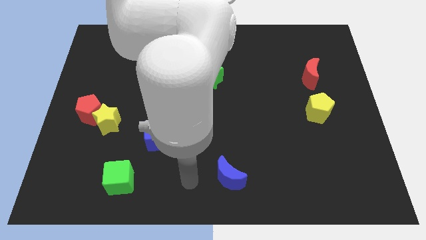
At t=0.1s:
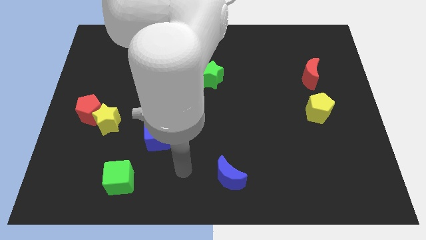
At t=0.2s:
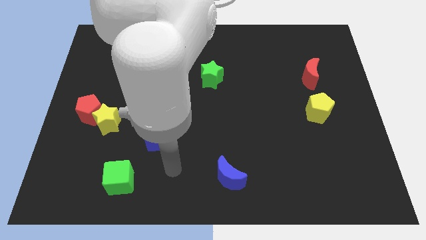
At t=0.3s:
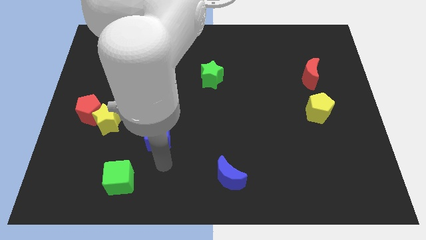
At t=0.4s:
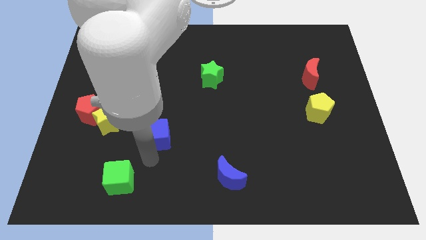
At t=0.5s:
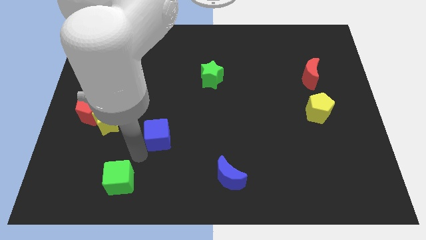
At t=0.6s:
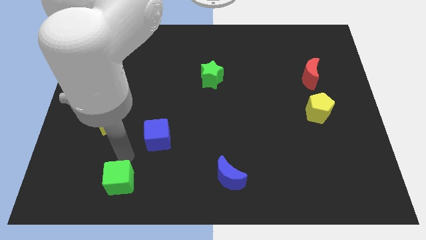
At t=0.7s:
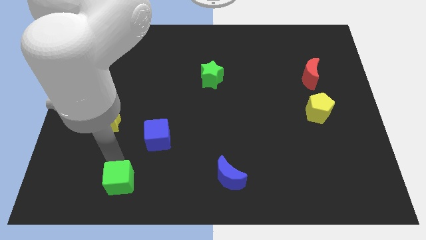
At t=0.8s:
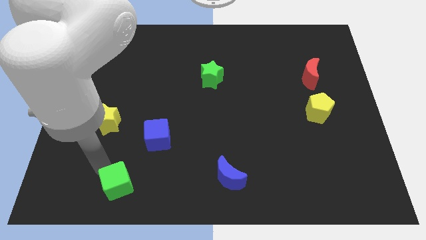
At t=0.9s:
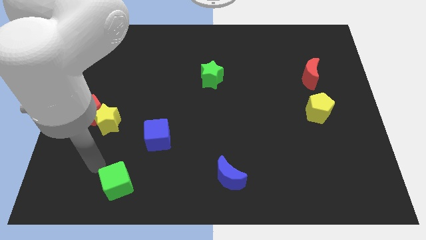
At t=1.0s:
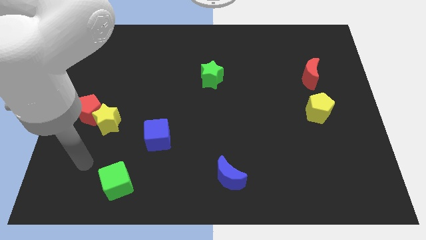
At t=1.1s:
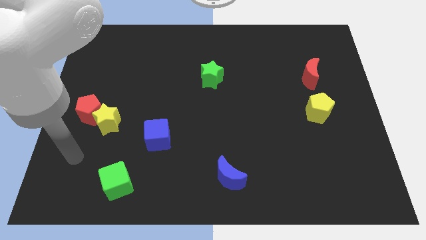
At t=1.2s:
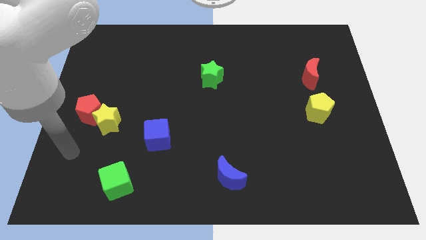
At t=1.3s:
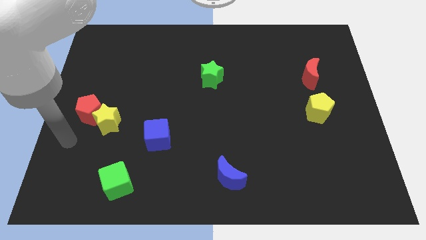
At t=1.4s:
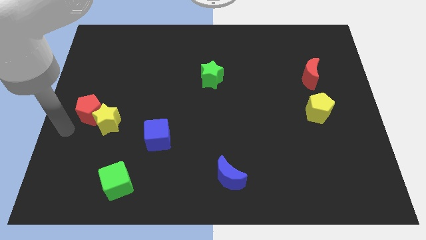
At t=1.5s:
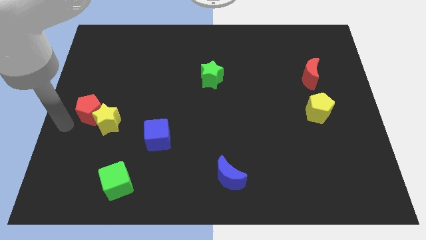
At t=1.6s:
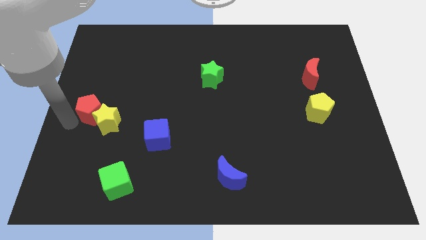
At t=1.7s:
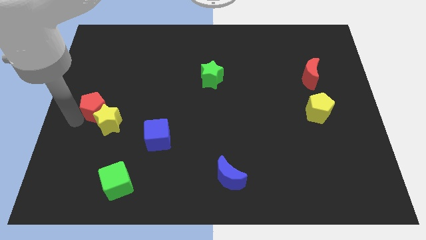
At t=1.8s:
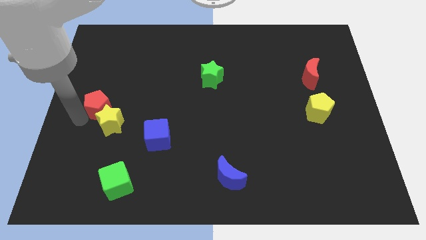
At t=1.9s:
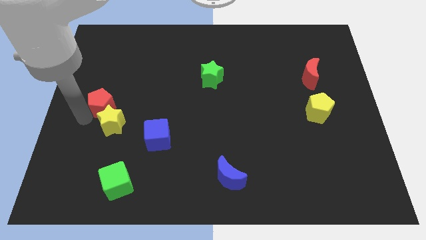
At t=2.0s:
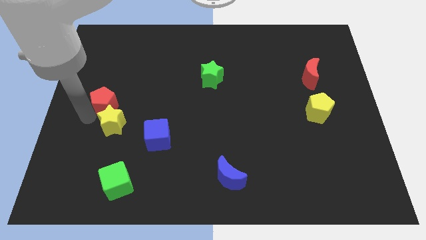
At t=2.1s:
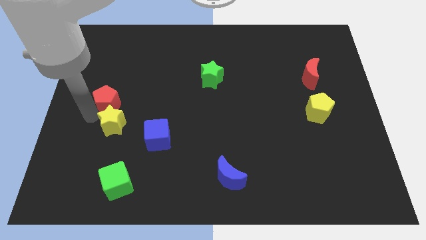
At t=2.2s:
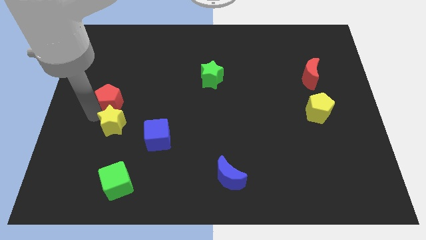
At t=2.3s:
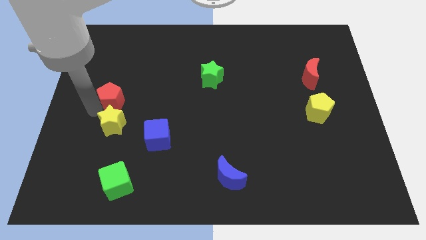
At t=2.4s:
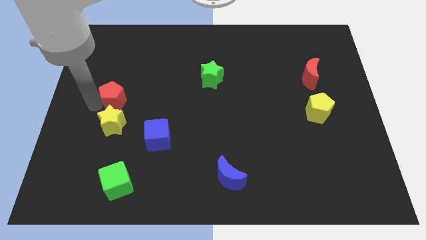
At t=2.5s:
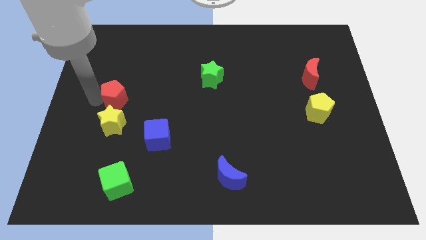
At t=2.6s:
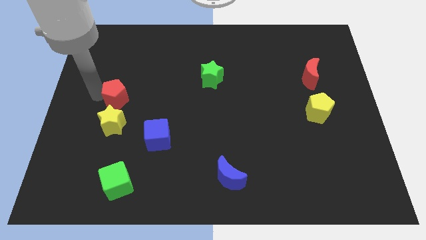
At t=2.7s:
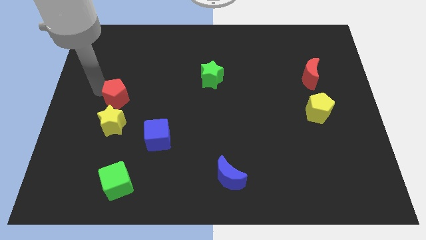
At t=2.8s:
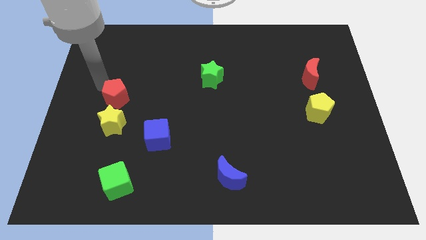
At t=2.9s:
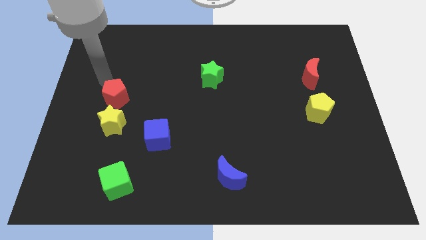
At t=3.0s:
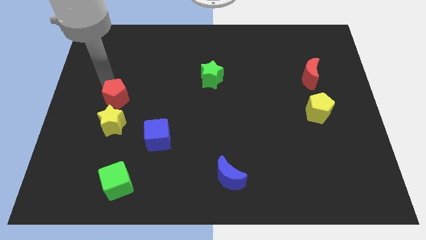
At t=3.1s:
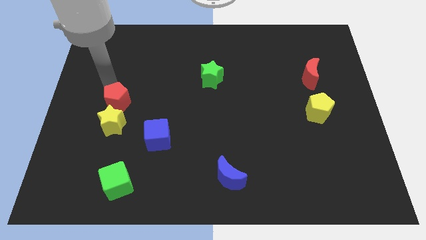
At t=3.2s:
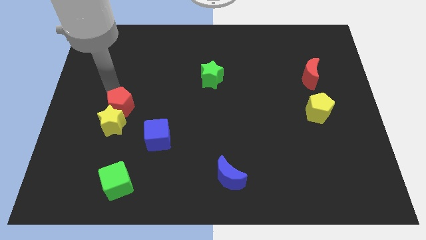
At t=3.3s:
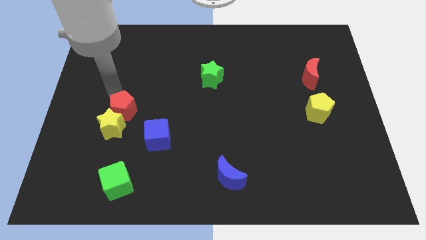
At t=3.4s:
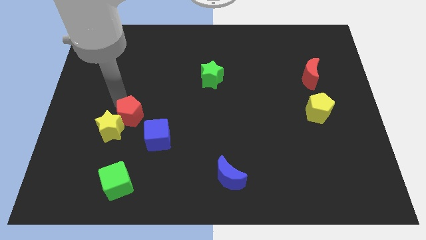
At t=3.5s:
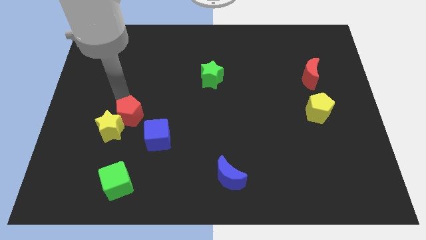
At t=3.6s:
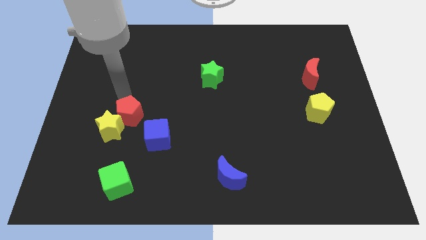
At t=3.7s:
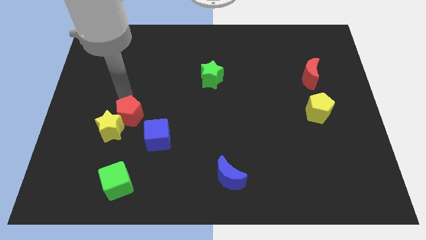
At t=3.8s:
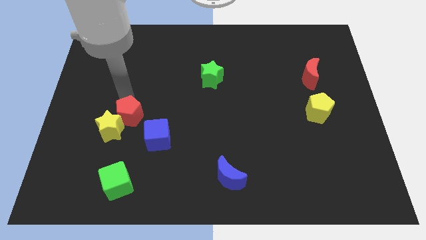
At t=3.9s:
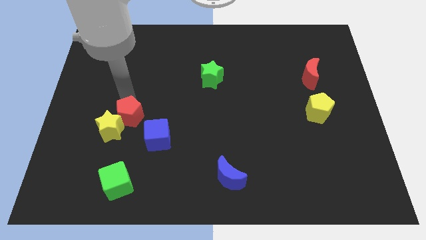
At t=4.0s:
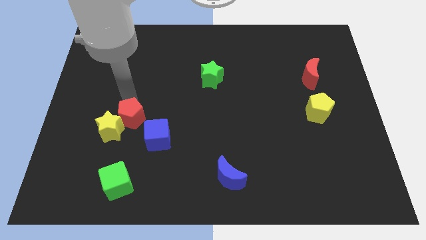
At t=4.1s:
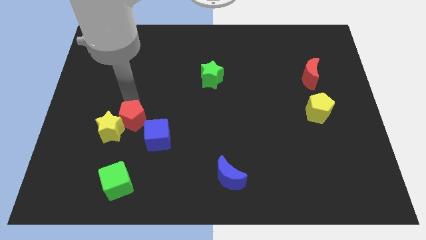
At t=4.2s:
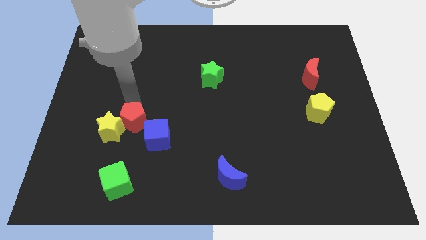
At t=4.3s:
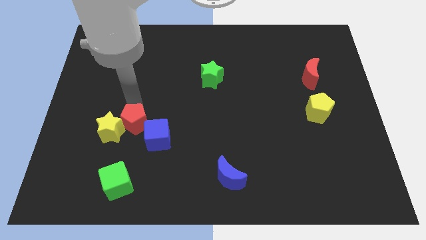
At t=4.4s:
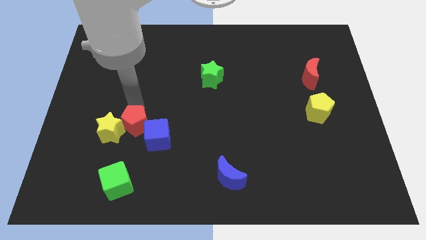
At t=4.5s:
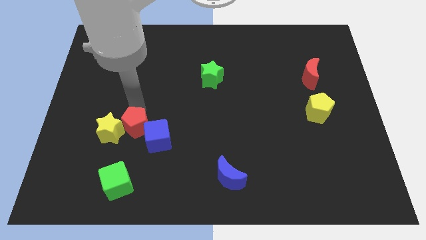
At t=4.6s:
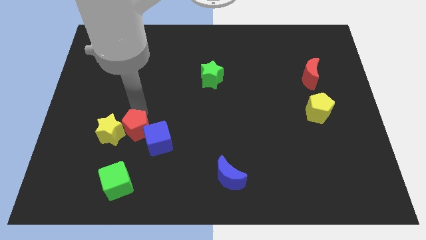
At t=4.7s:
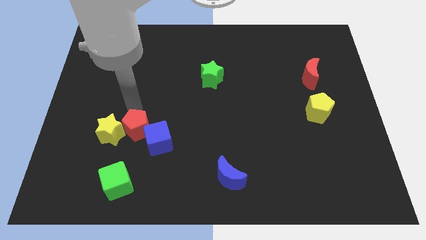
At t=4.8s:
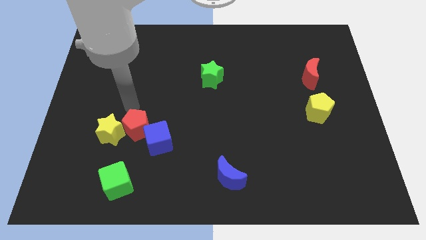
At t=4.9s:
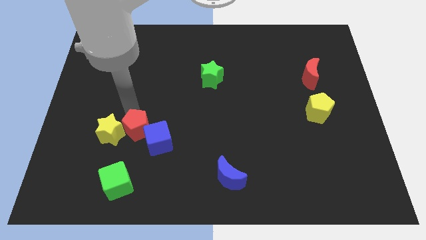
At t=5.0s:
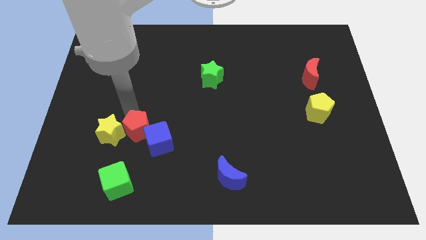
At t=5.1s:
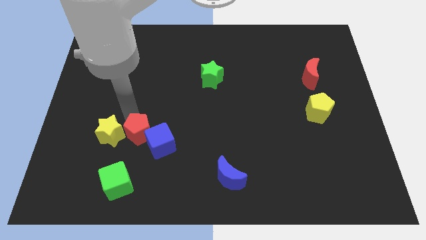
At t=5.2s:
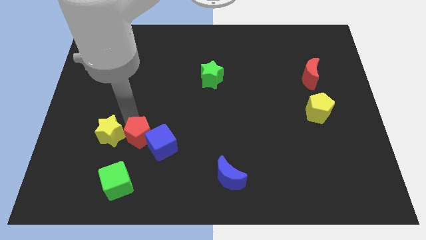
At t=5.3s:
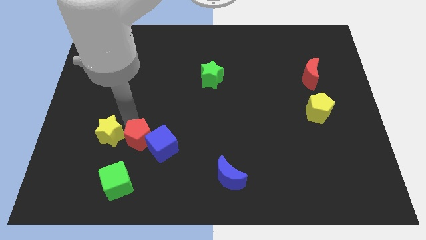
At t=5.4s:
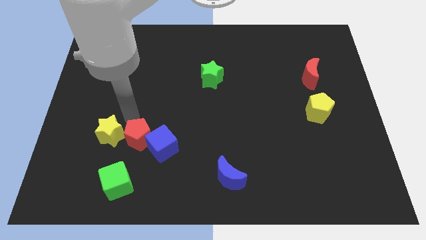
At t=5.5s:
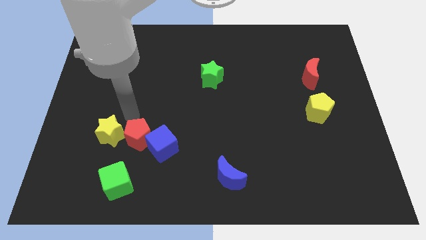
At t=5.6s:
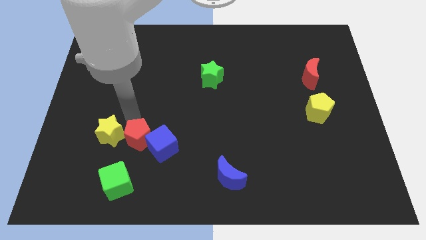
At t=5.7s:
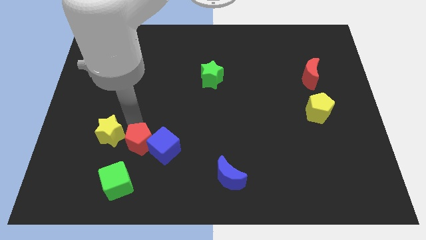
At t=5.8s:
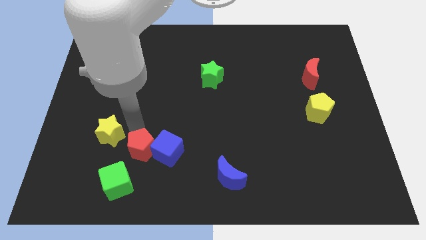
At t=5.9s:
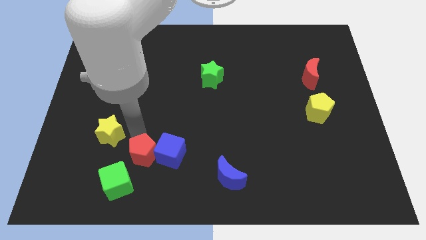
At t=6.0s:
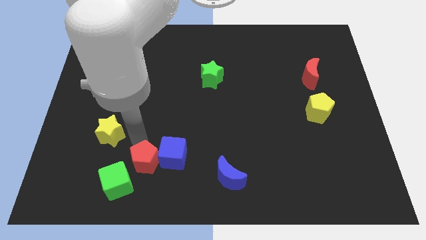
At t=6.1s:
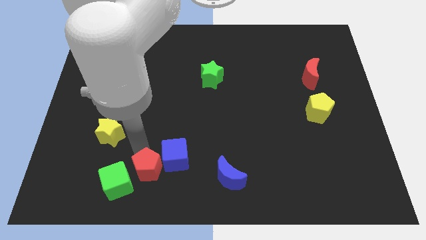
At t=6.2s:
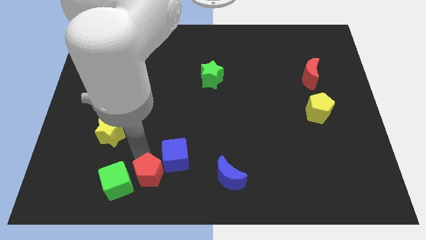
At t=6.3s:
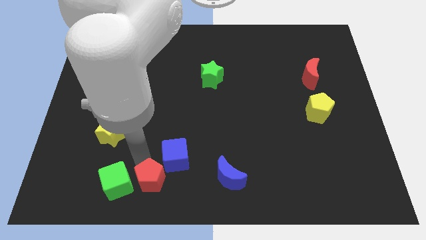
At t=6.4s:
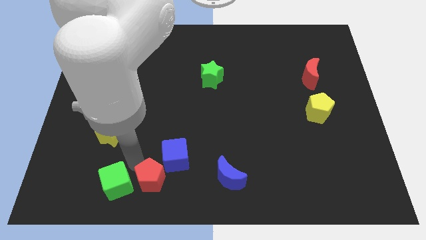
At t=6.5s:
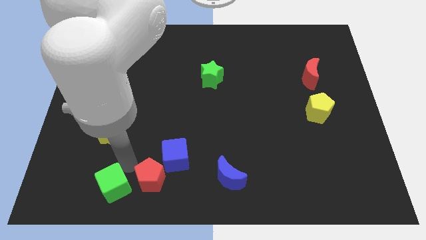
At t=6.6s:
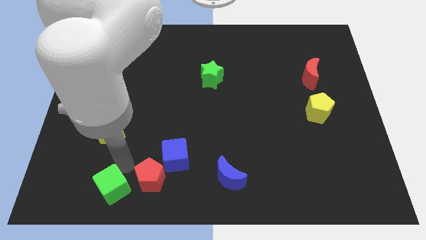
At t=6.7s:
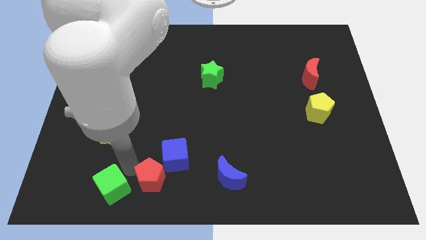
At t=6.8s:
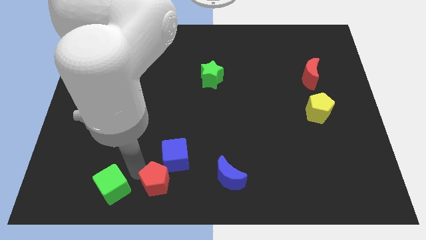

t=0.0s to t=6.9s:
push the red pentagon to the bottom
